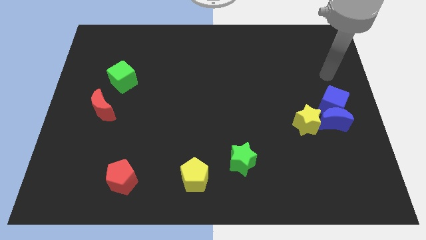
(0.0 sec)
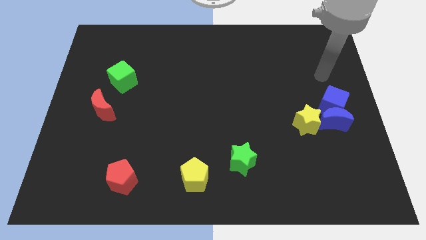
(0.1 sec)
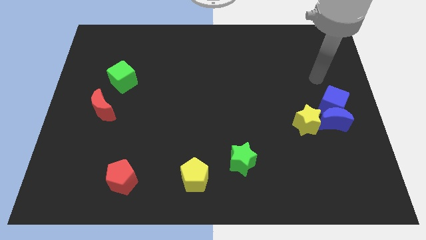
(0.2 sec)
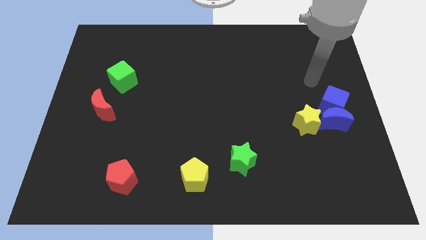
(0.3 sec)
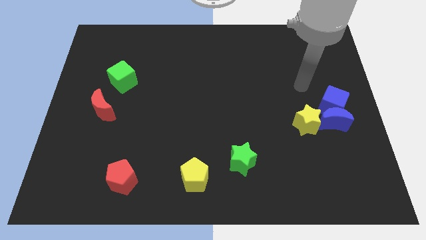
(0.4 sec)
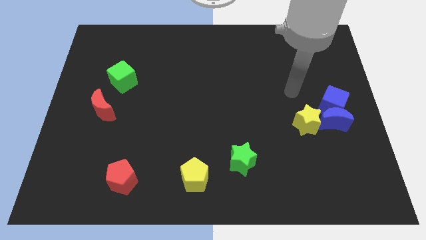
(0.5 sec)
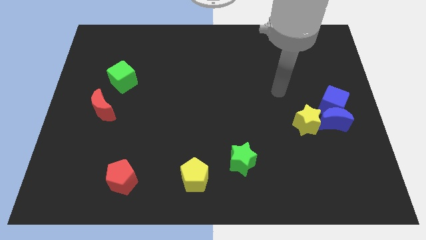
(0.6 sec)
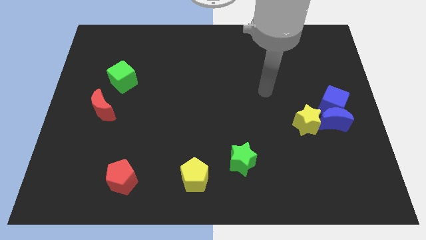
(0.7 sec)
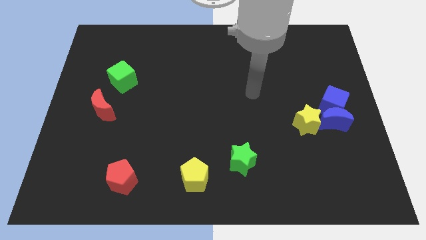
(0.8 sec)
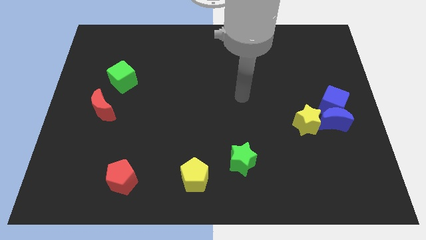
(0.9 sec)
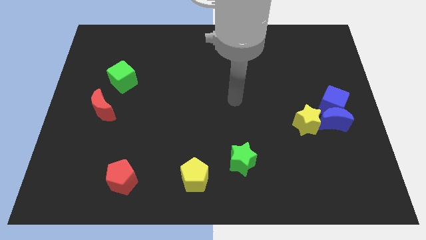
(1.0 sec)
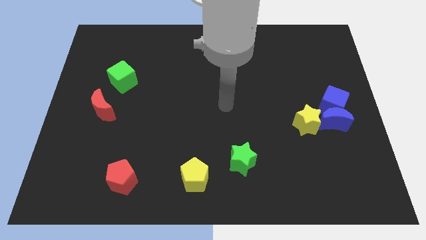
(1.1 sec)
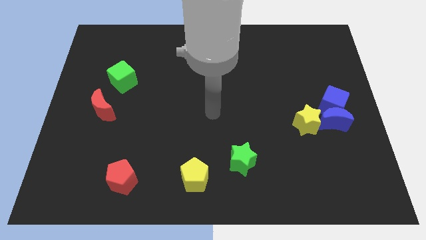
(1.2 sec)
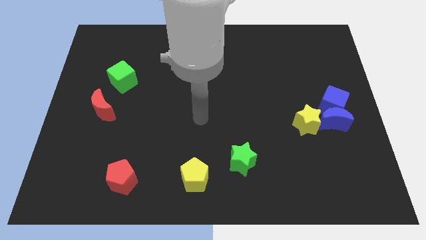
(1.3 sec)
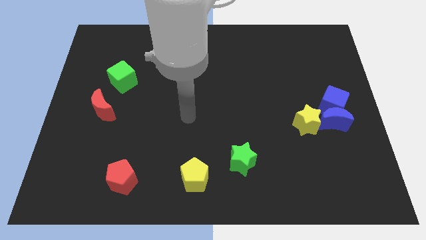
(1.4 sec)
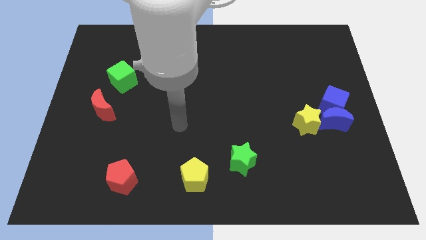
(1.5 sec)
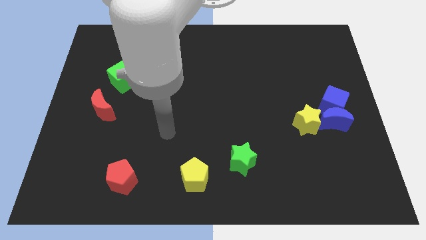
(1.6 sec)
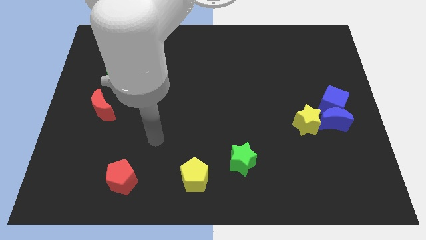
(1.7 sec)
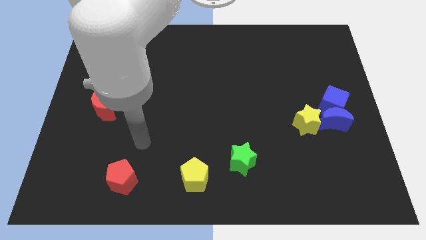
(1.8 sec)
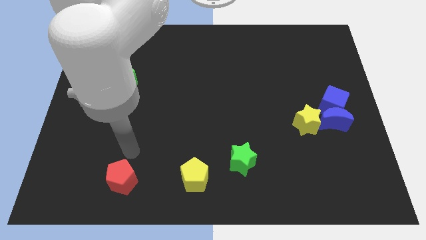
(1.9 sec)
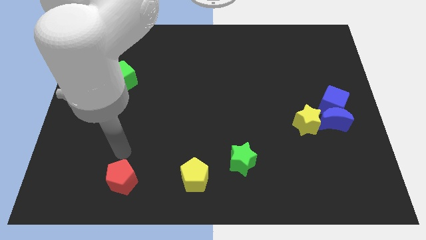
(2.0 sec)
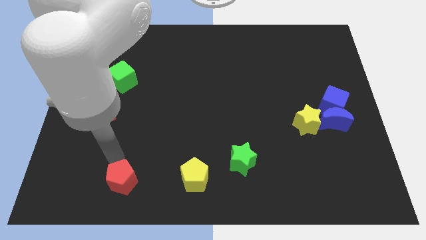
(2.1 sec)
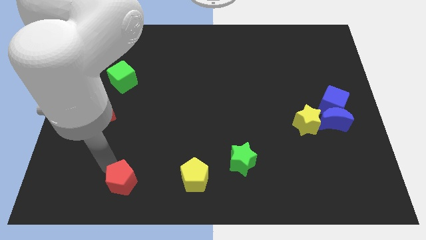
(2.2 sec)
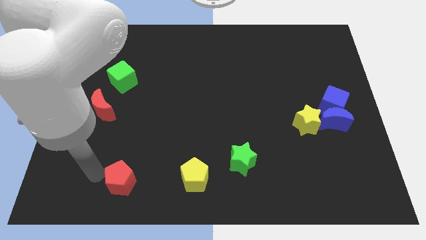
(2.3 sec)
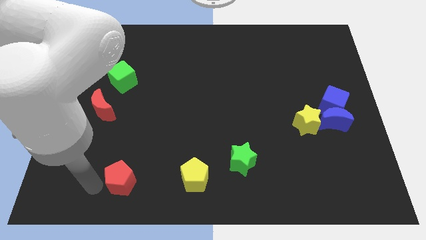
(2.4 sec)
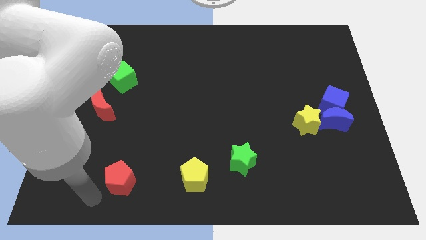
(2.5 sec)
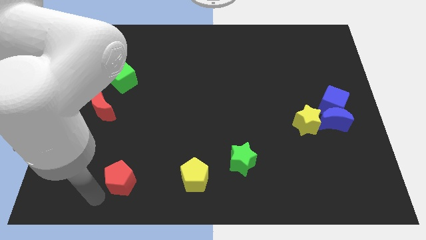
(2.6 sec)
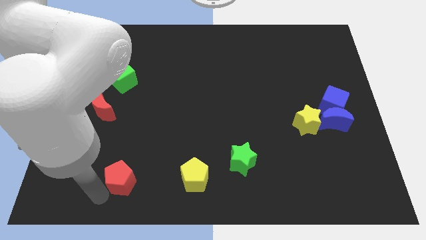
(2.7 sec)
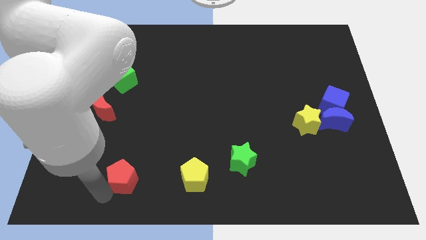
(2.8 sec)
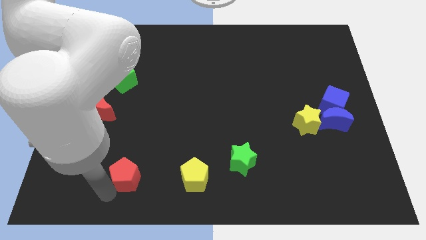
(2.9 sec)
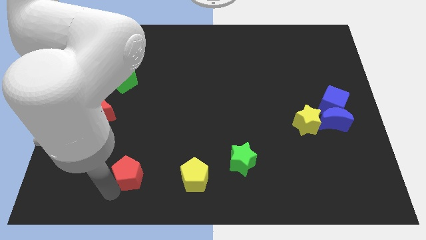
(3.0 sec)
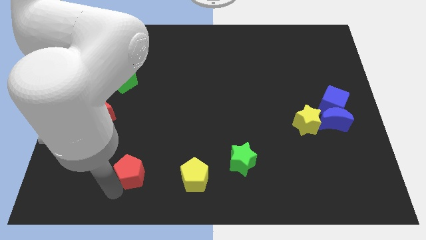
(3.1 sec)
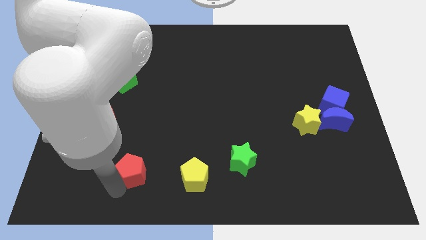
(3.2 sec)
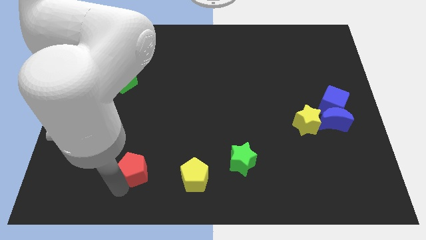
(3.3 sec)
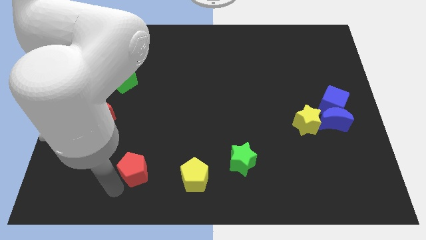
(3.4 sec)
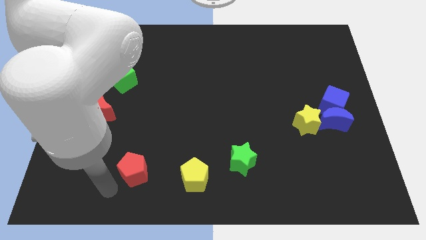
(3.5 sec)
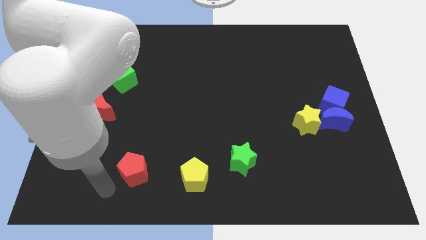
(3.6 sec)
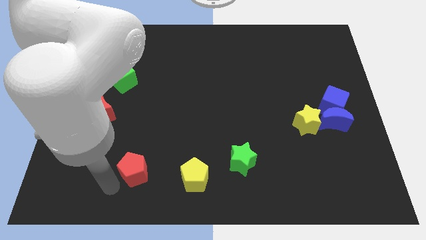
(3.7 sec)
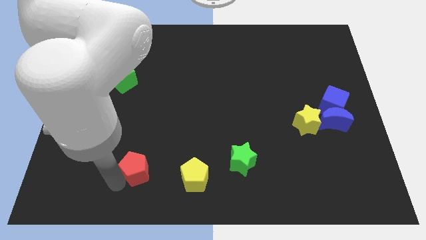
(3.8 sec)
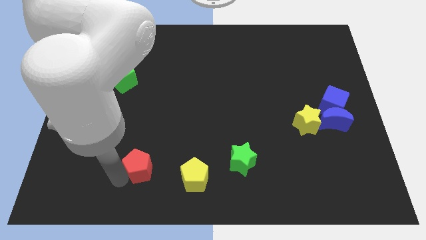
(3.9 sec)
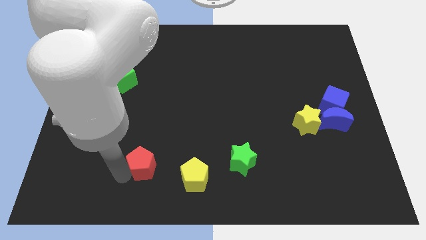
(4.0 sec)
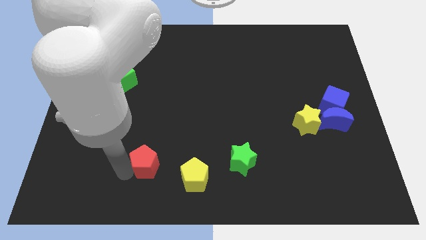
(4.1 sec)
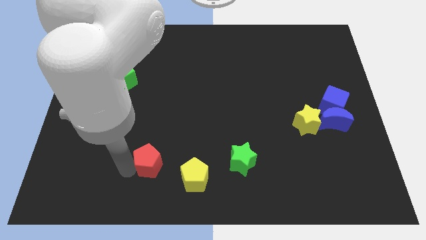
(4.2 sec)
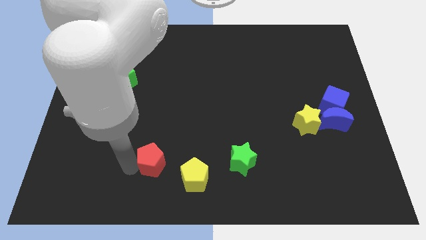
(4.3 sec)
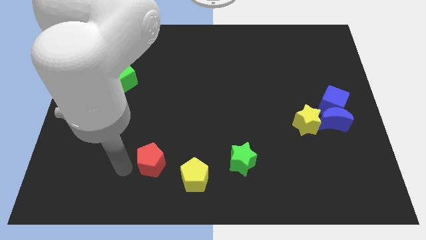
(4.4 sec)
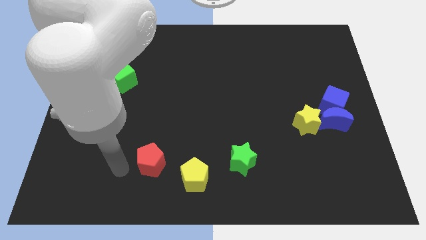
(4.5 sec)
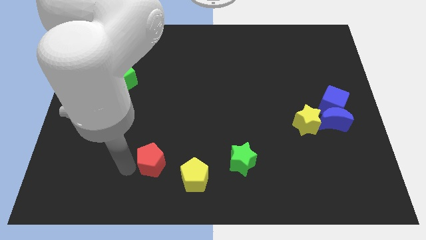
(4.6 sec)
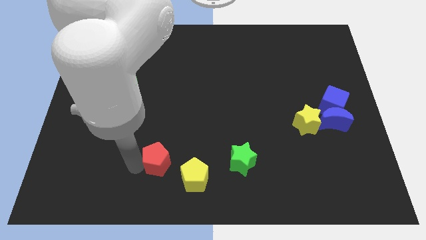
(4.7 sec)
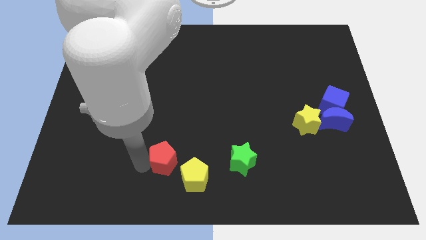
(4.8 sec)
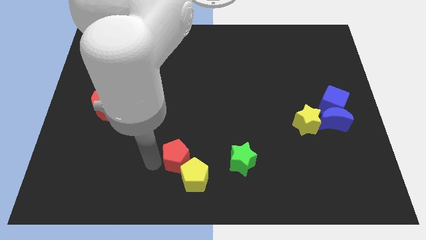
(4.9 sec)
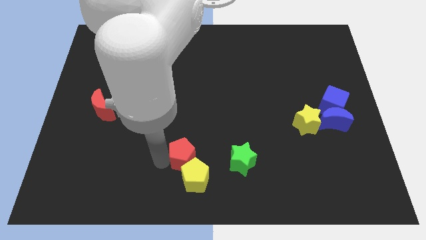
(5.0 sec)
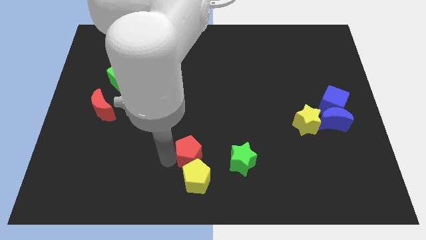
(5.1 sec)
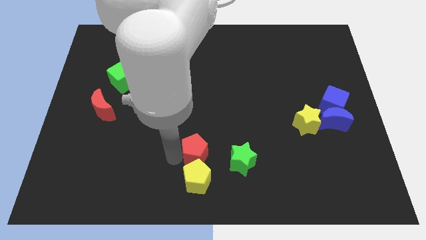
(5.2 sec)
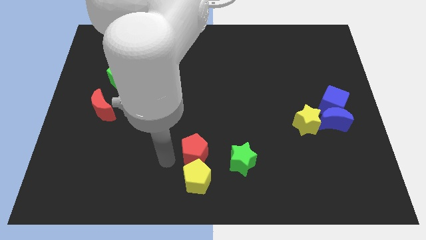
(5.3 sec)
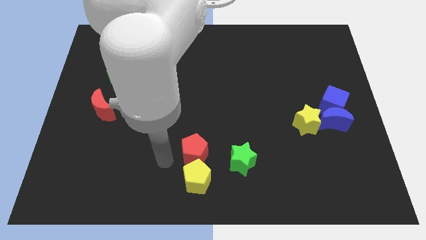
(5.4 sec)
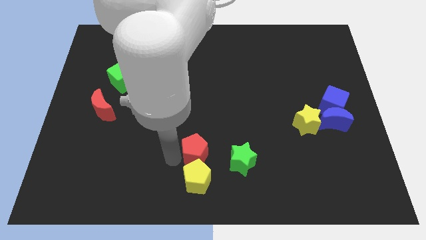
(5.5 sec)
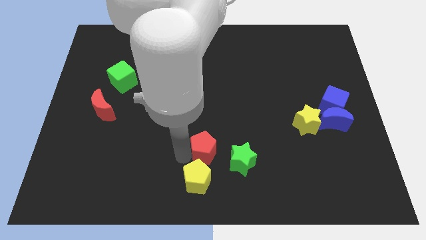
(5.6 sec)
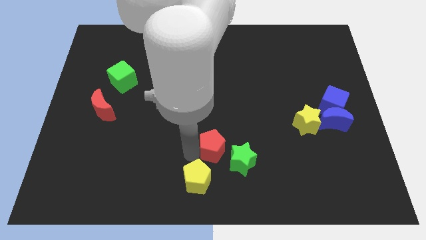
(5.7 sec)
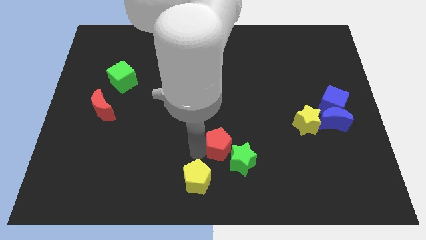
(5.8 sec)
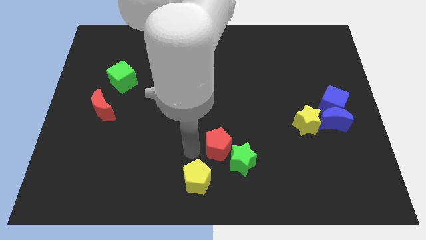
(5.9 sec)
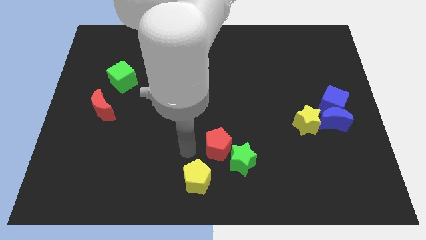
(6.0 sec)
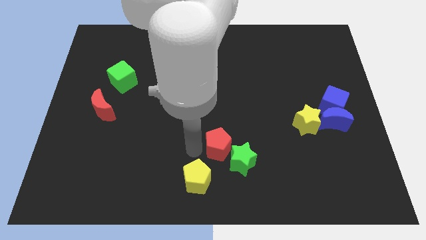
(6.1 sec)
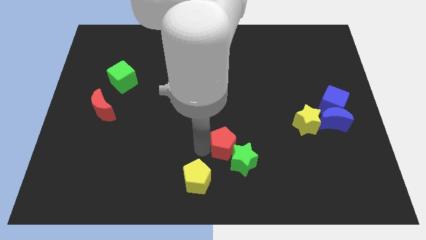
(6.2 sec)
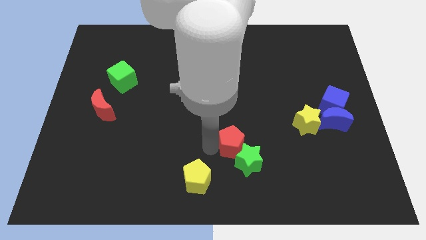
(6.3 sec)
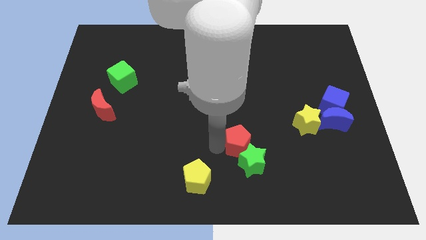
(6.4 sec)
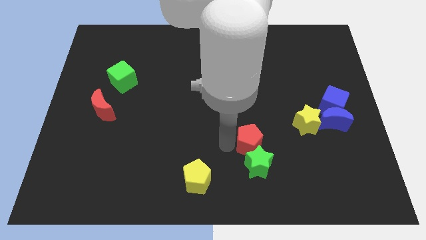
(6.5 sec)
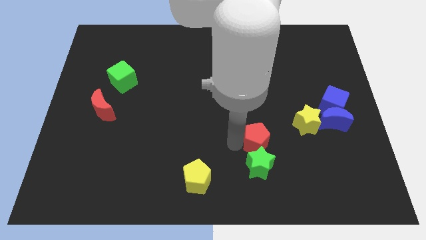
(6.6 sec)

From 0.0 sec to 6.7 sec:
move the red pentagon diagonally up and to the right of the green star
